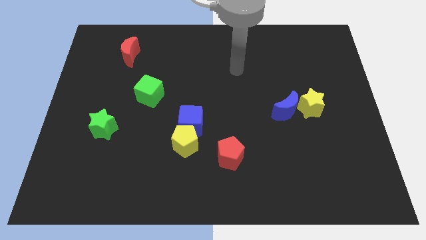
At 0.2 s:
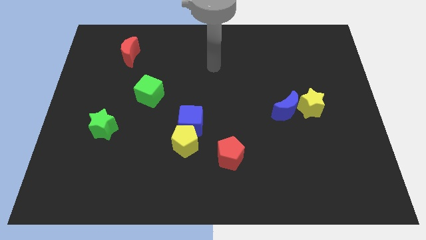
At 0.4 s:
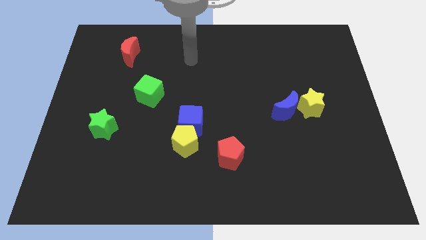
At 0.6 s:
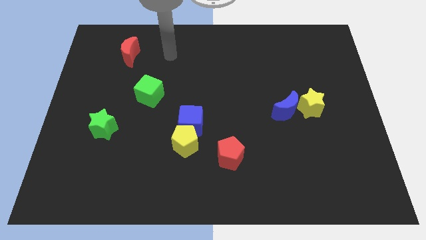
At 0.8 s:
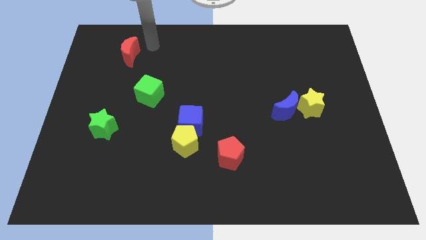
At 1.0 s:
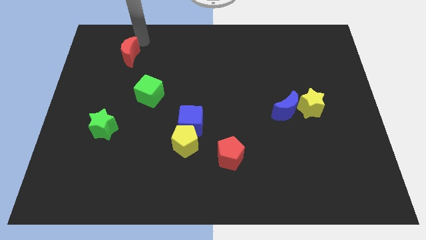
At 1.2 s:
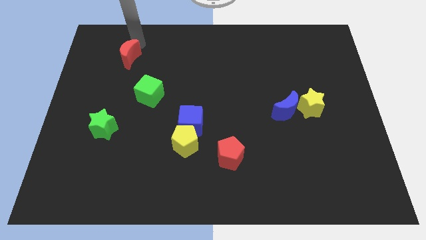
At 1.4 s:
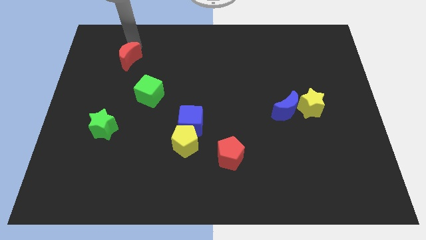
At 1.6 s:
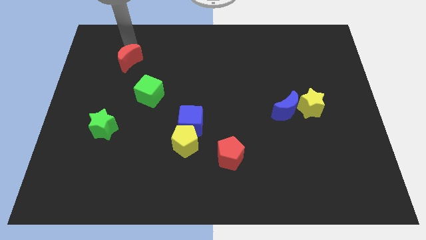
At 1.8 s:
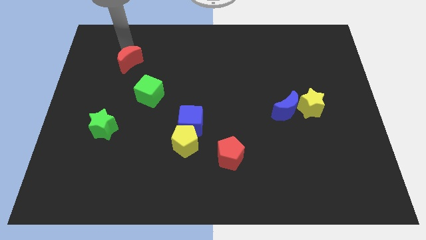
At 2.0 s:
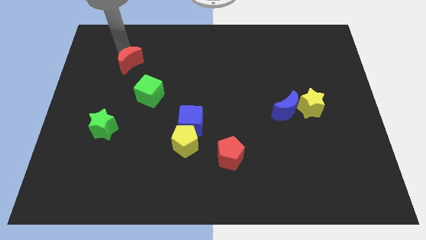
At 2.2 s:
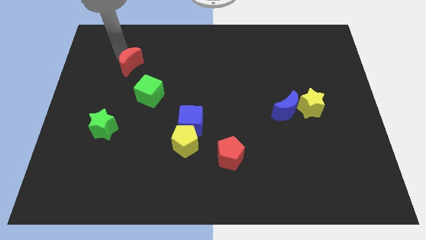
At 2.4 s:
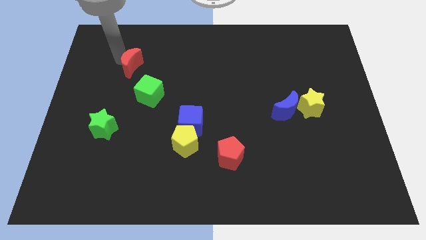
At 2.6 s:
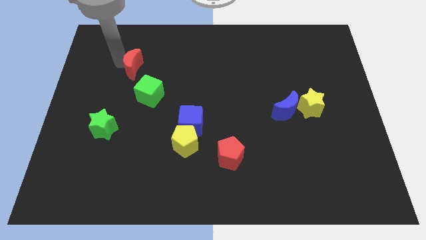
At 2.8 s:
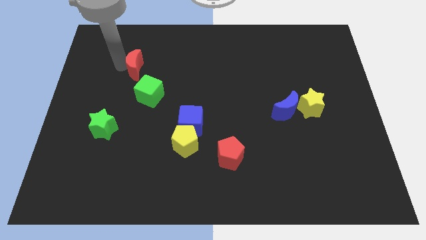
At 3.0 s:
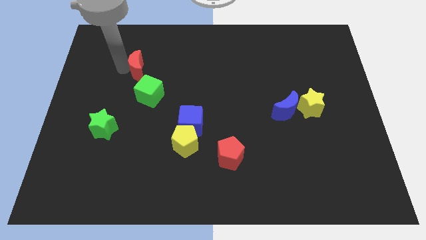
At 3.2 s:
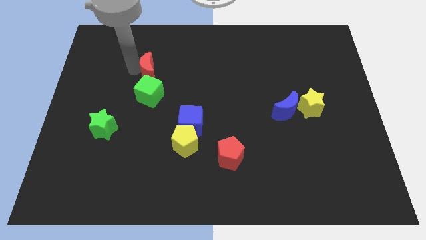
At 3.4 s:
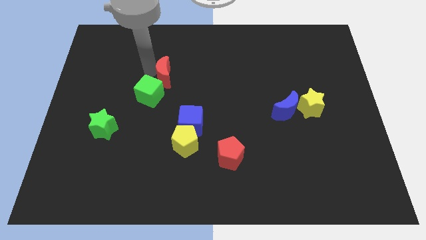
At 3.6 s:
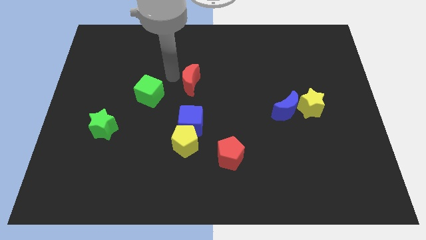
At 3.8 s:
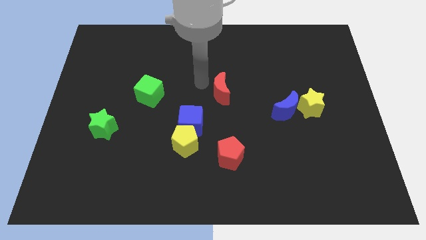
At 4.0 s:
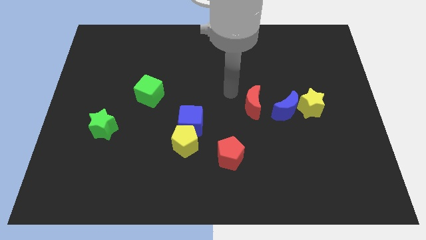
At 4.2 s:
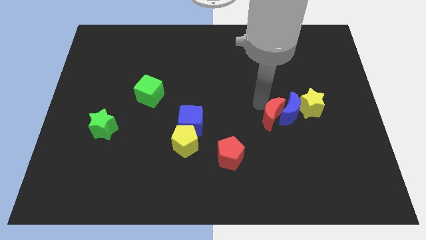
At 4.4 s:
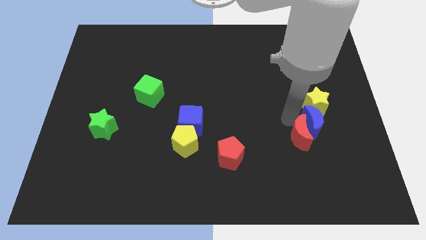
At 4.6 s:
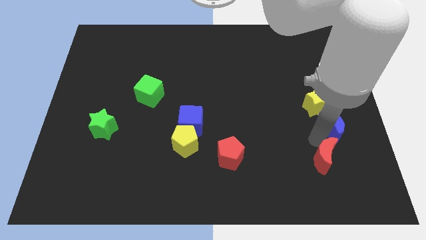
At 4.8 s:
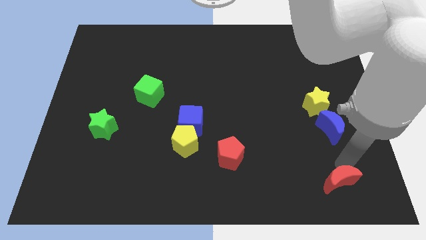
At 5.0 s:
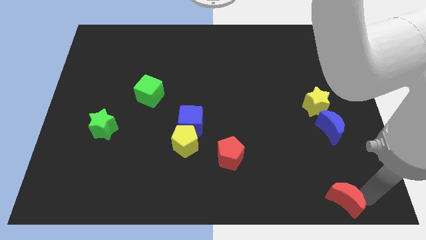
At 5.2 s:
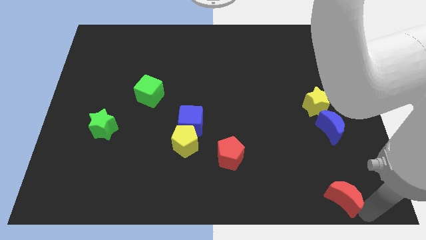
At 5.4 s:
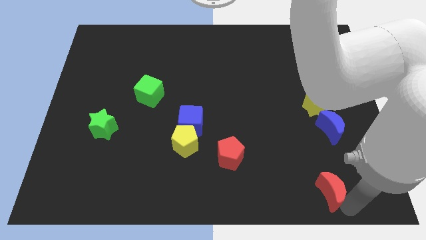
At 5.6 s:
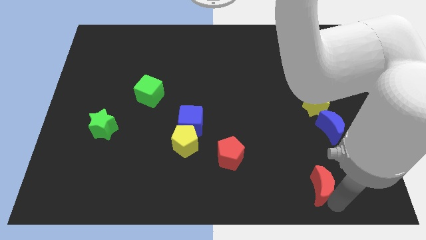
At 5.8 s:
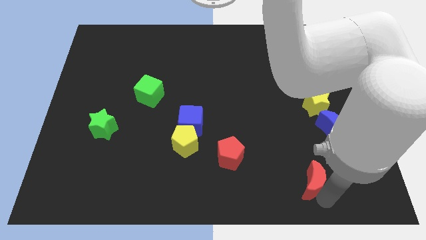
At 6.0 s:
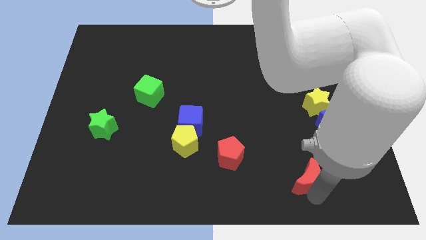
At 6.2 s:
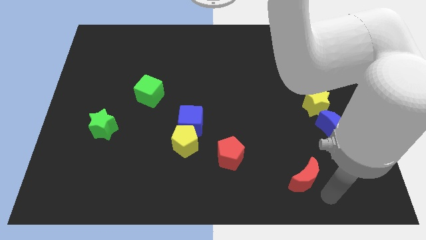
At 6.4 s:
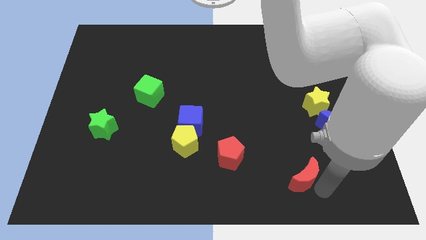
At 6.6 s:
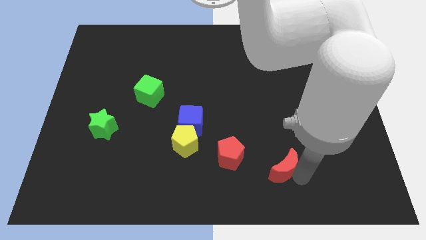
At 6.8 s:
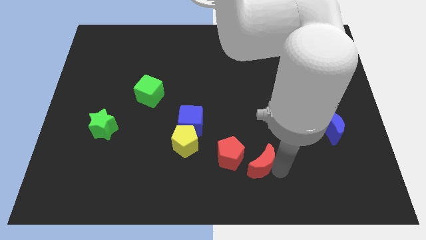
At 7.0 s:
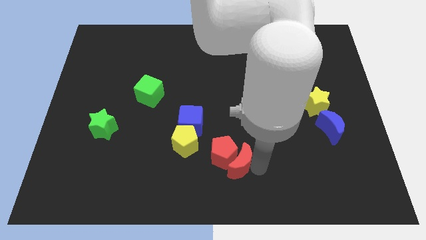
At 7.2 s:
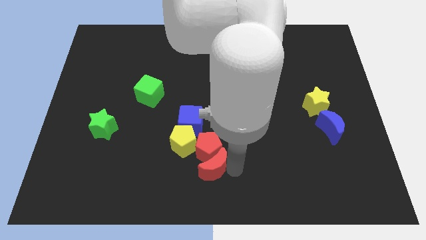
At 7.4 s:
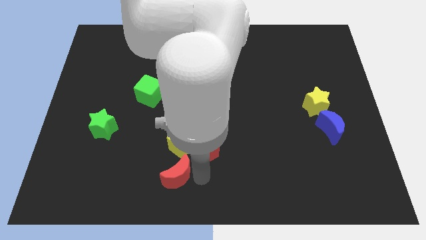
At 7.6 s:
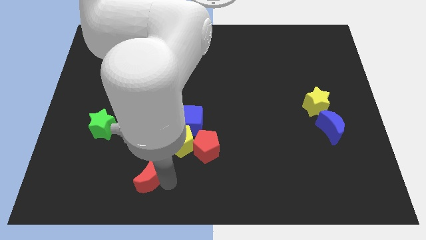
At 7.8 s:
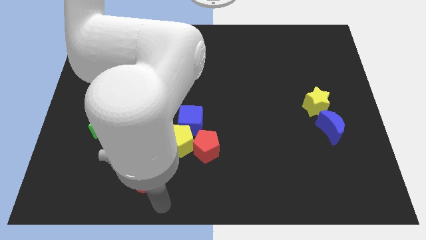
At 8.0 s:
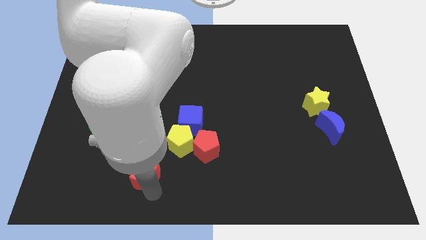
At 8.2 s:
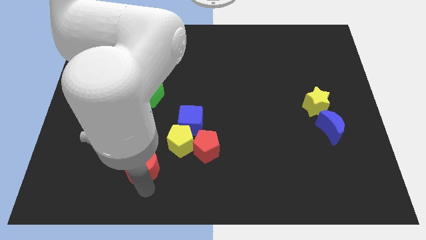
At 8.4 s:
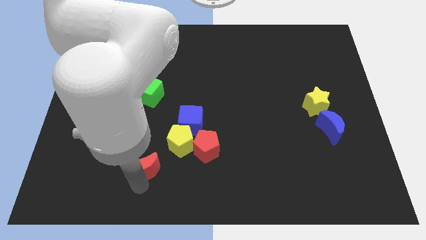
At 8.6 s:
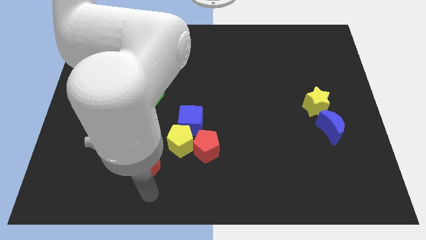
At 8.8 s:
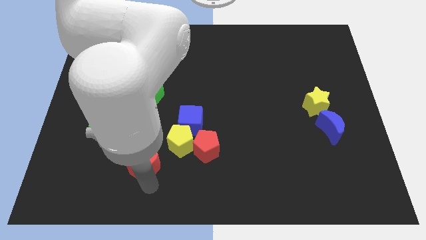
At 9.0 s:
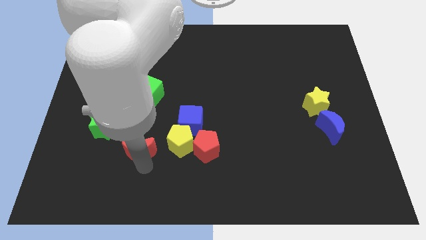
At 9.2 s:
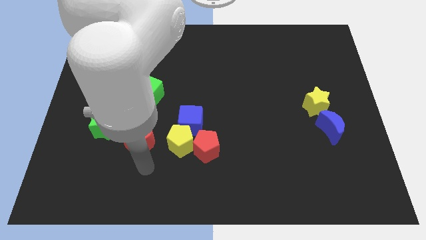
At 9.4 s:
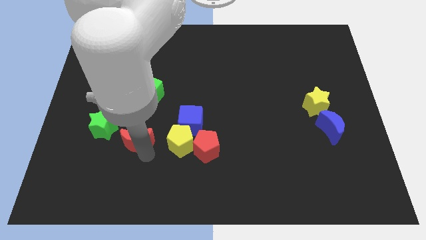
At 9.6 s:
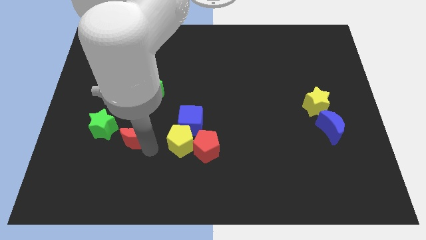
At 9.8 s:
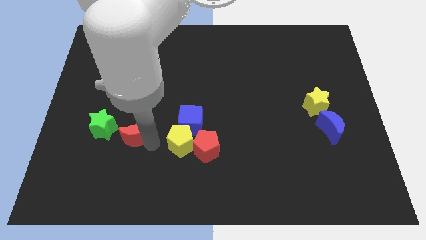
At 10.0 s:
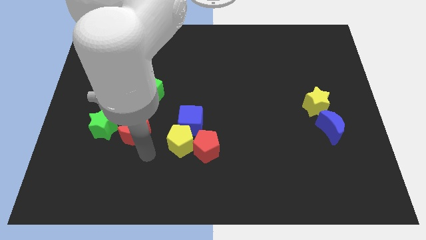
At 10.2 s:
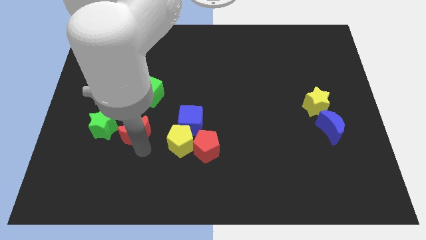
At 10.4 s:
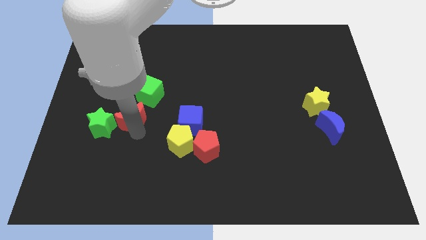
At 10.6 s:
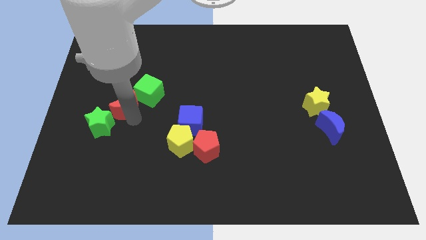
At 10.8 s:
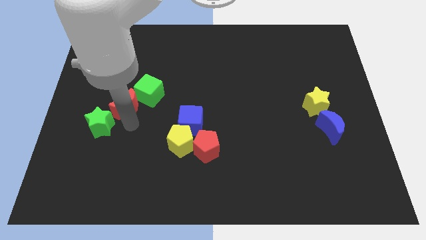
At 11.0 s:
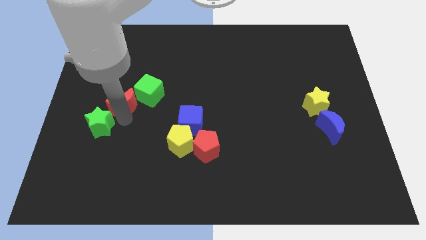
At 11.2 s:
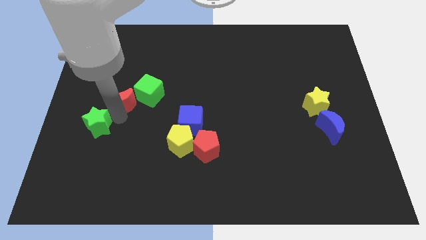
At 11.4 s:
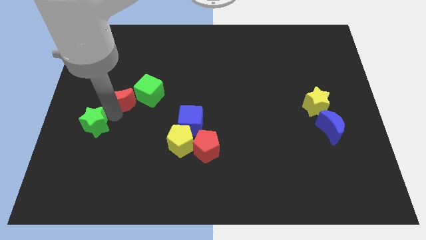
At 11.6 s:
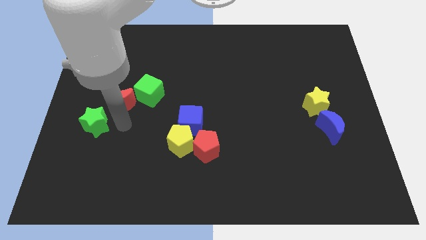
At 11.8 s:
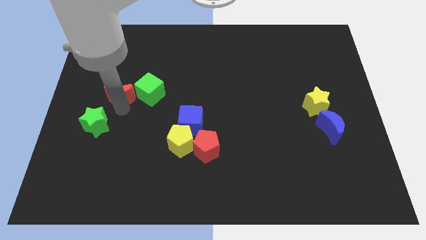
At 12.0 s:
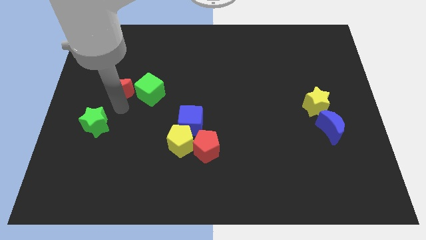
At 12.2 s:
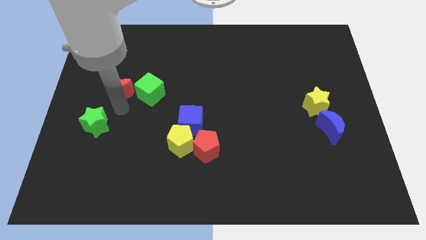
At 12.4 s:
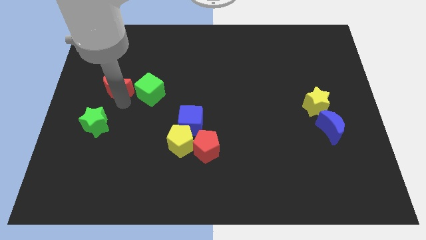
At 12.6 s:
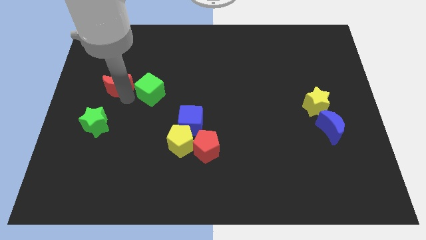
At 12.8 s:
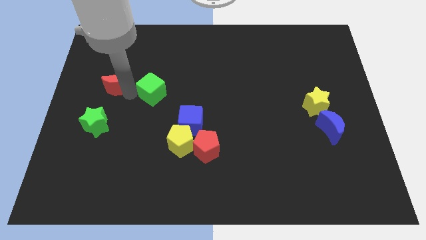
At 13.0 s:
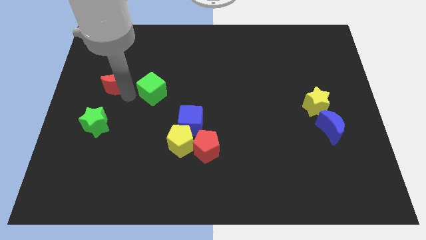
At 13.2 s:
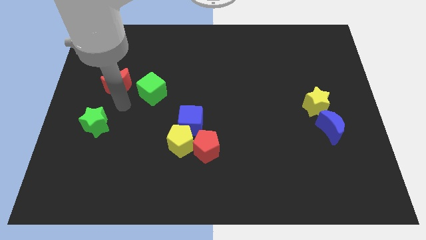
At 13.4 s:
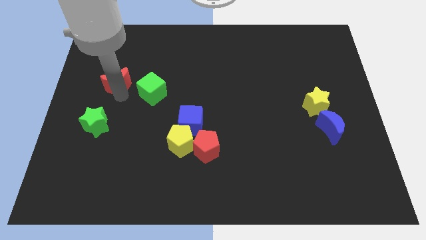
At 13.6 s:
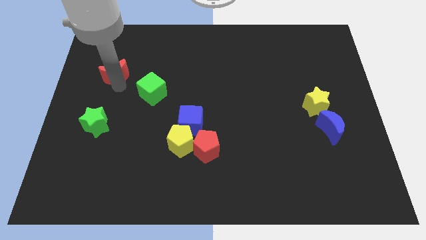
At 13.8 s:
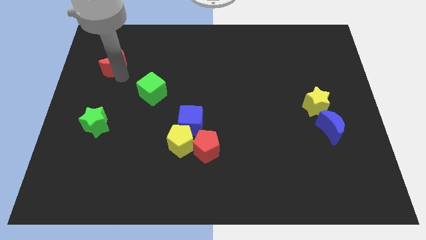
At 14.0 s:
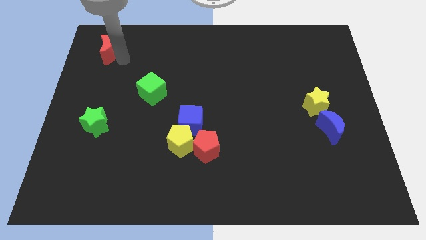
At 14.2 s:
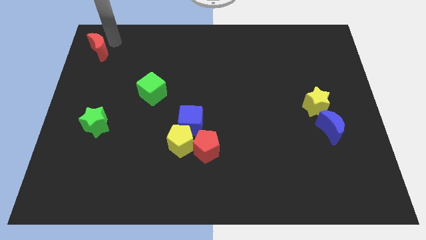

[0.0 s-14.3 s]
slide the red moon to the top left
